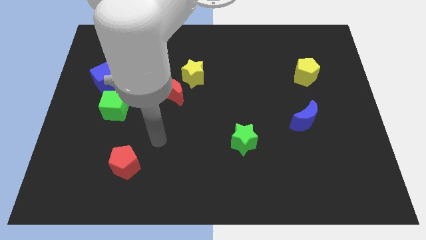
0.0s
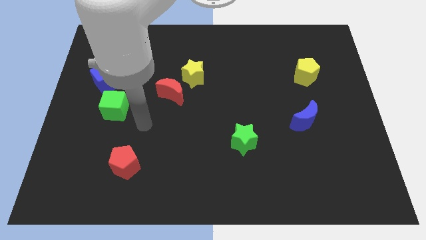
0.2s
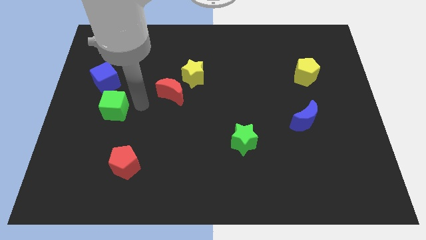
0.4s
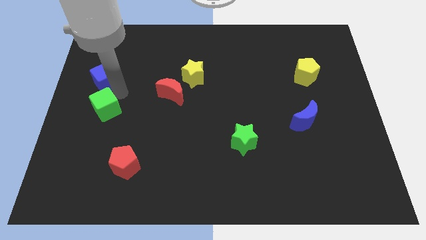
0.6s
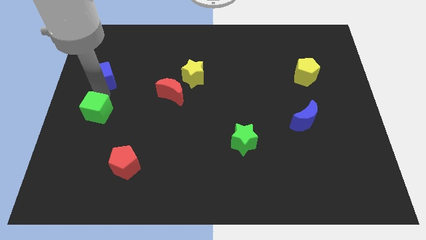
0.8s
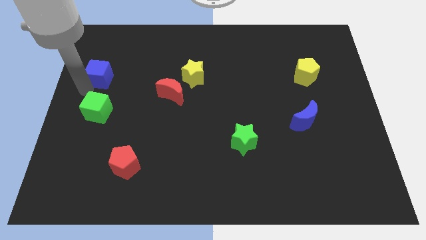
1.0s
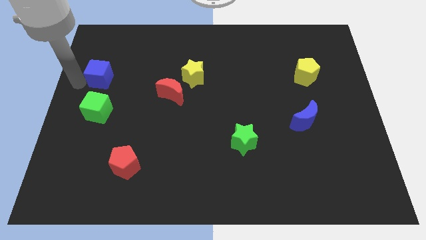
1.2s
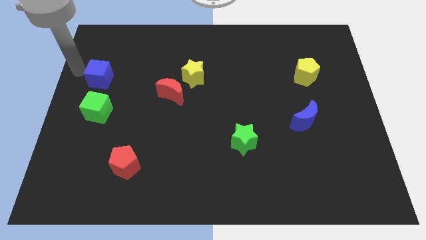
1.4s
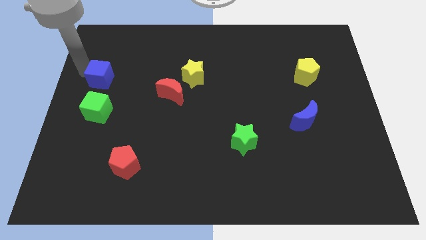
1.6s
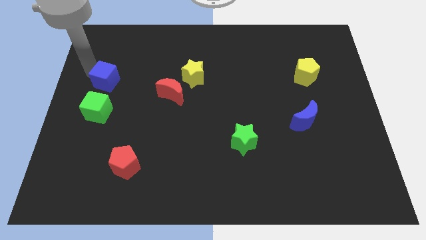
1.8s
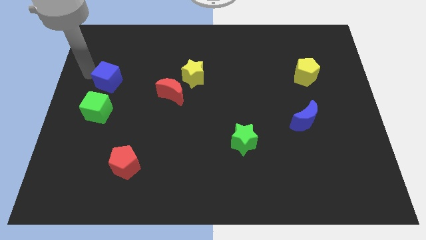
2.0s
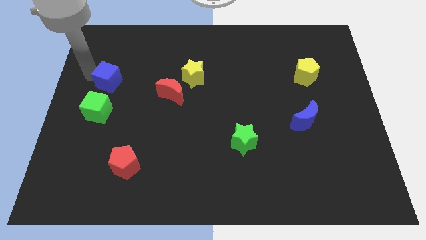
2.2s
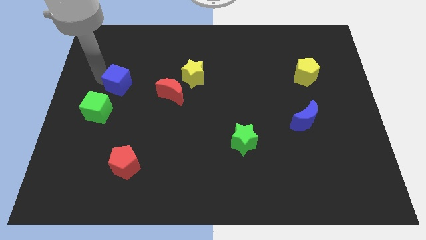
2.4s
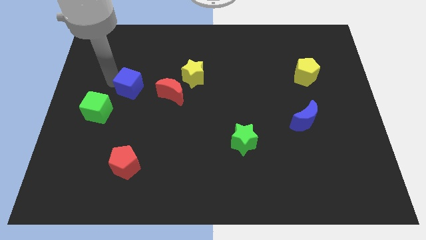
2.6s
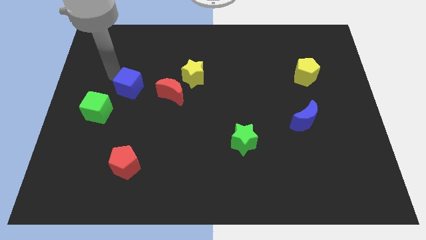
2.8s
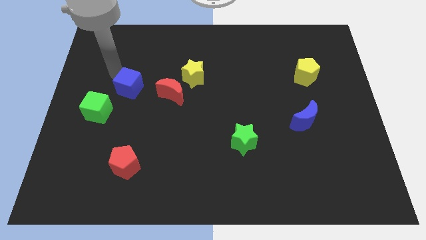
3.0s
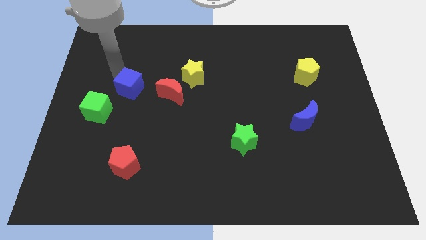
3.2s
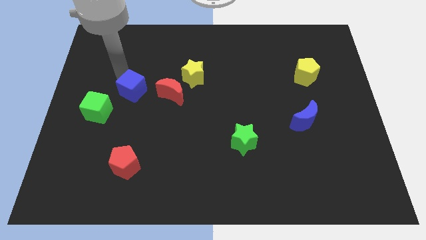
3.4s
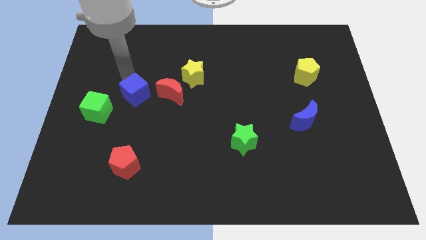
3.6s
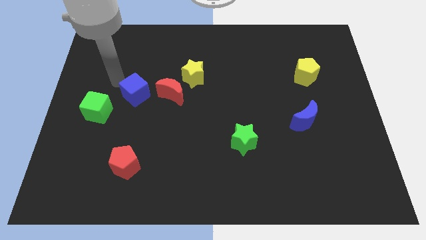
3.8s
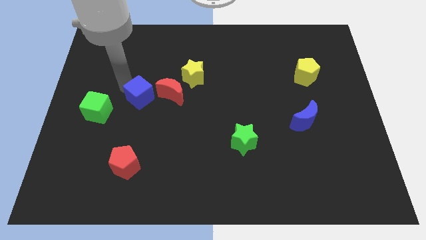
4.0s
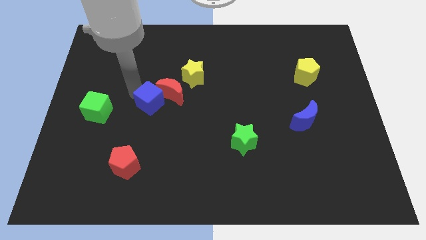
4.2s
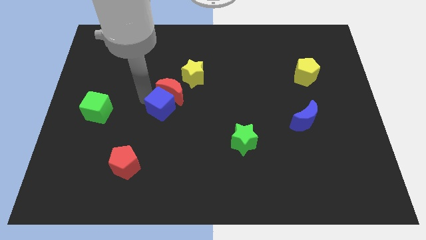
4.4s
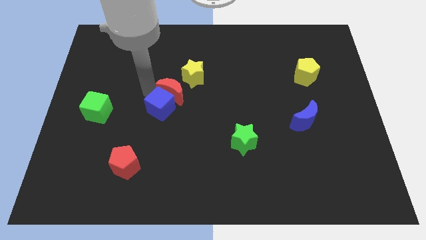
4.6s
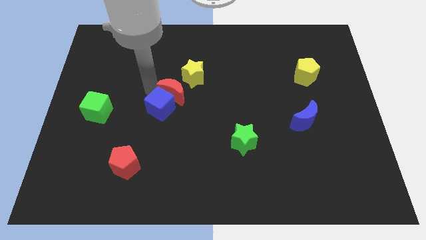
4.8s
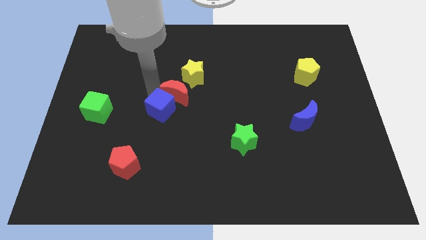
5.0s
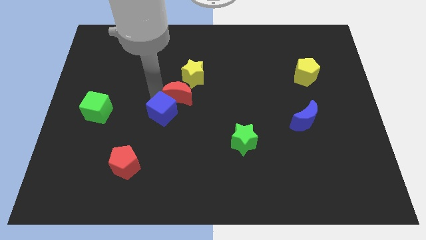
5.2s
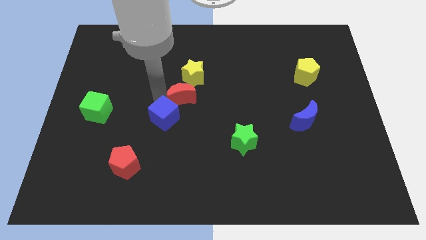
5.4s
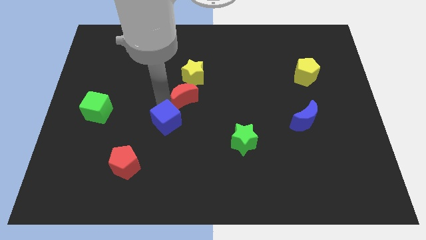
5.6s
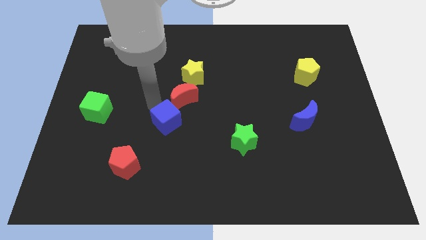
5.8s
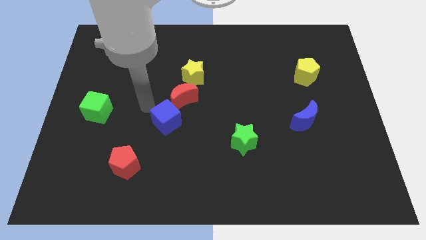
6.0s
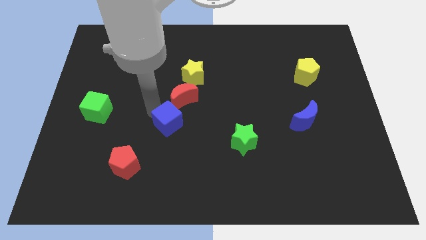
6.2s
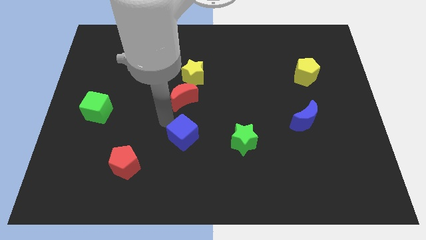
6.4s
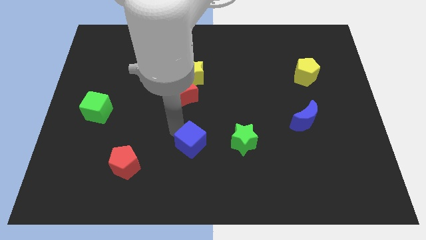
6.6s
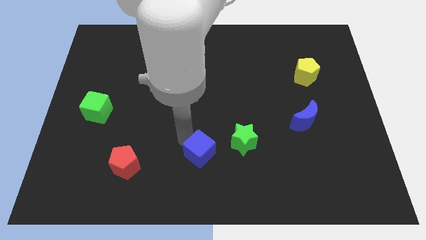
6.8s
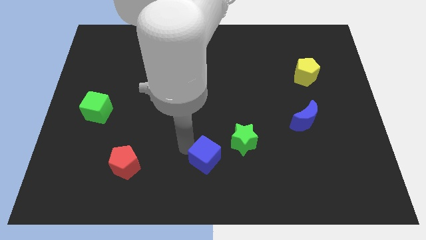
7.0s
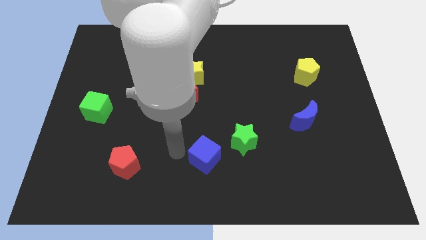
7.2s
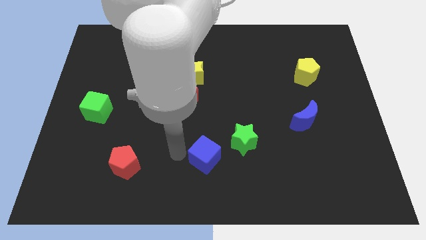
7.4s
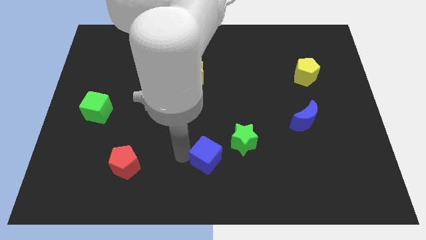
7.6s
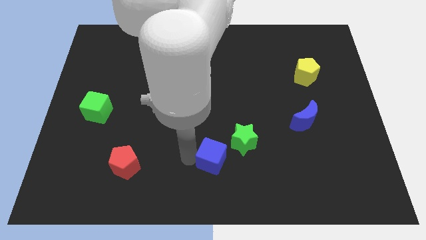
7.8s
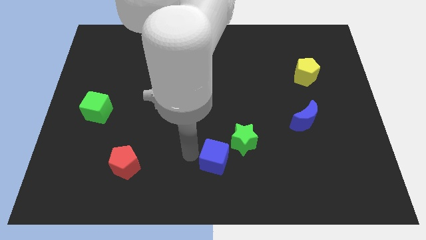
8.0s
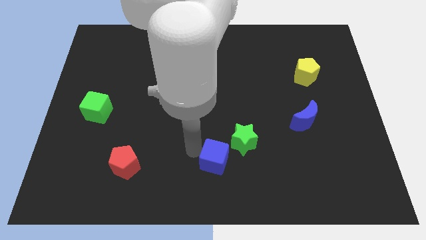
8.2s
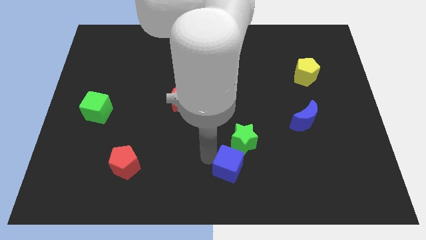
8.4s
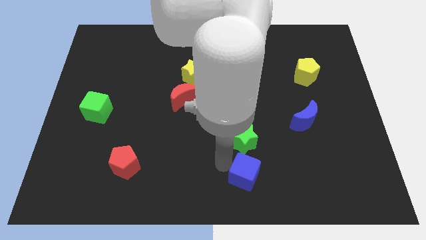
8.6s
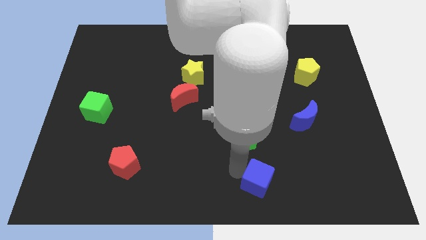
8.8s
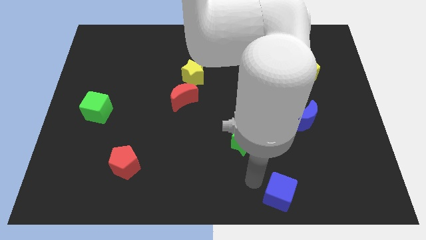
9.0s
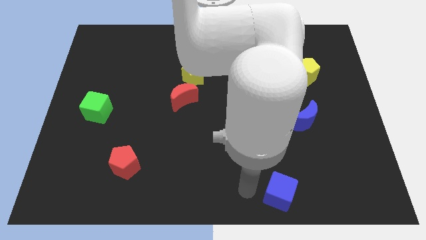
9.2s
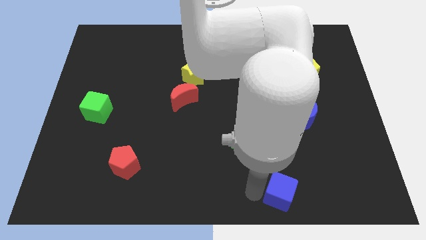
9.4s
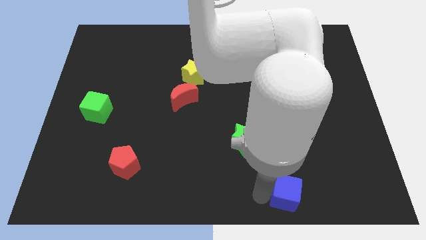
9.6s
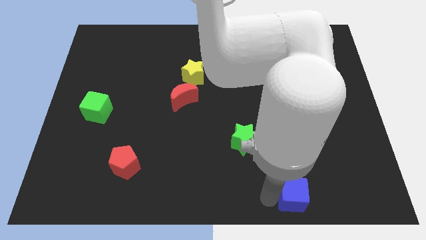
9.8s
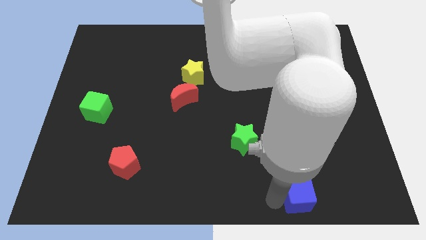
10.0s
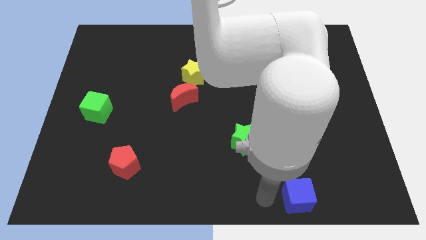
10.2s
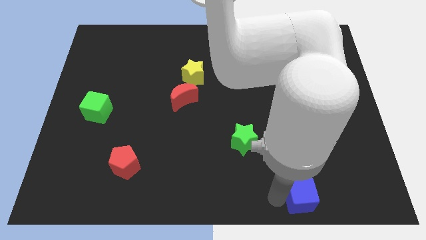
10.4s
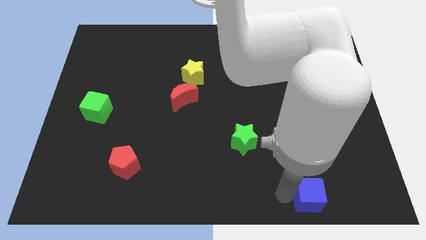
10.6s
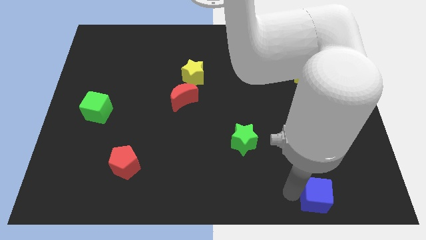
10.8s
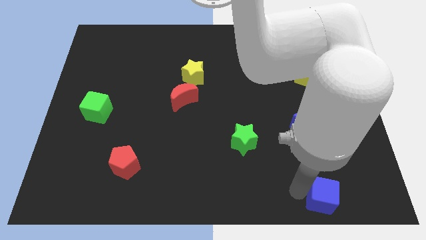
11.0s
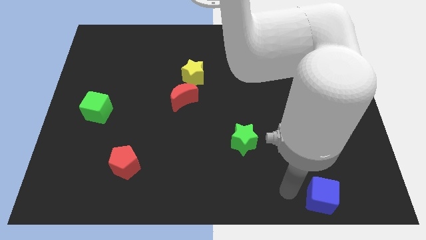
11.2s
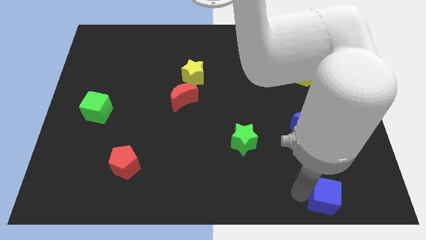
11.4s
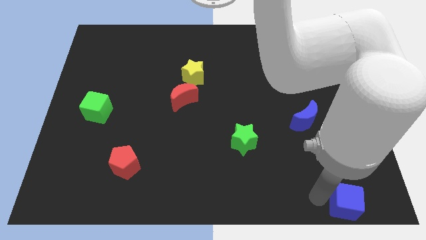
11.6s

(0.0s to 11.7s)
push the blue cube to the lower right corner

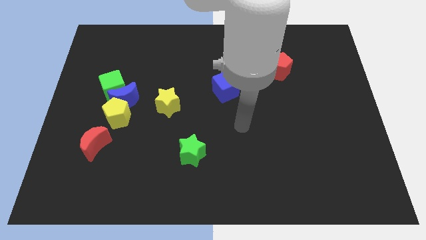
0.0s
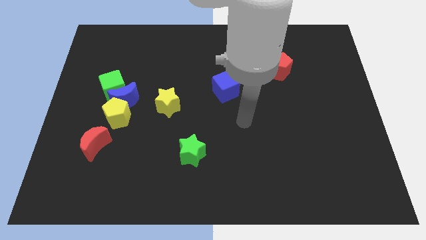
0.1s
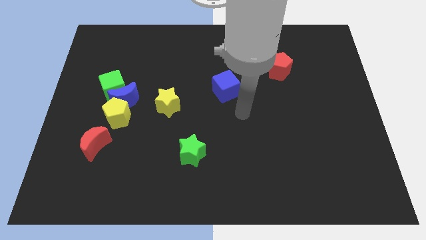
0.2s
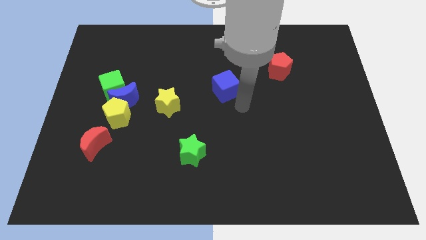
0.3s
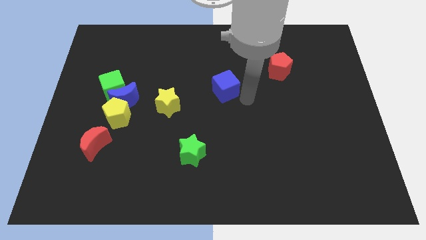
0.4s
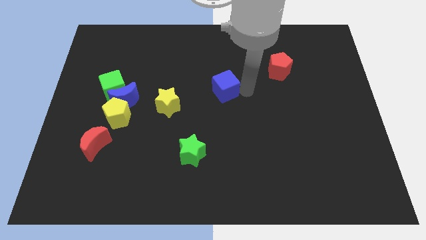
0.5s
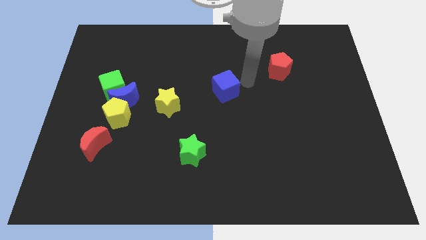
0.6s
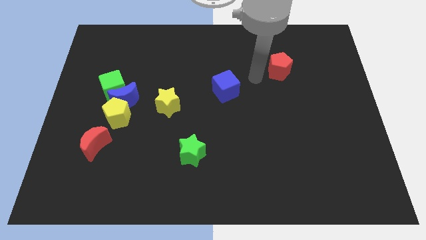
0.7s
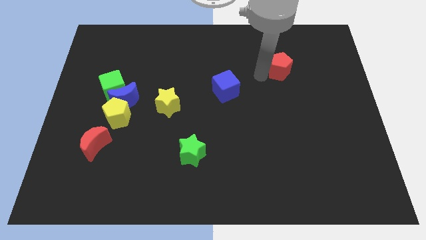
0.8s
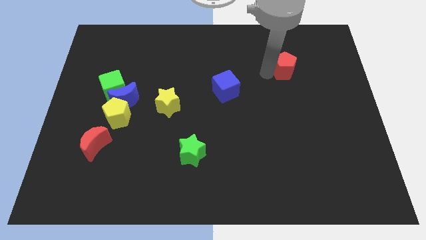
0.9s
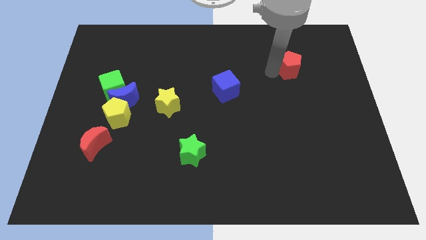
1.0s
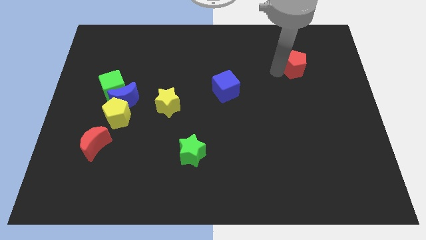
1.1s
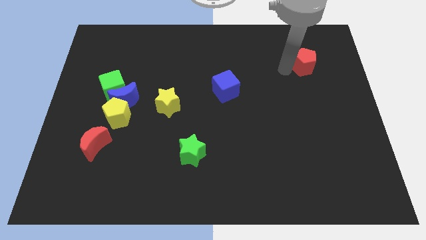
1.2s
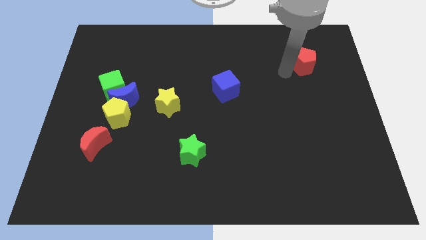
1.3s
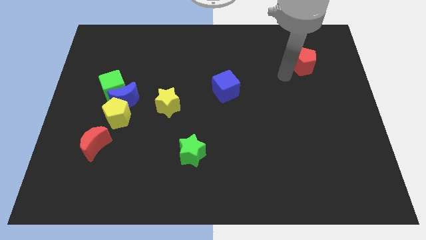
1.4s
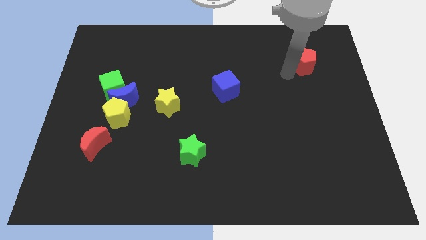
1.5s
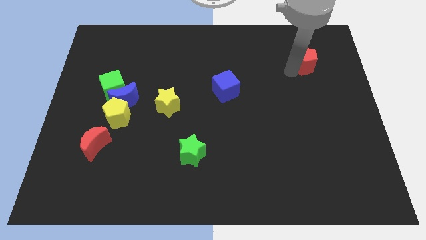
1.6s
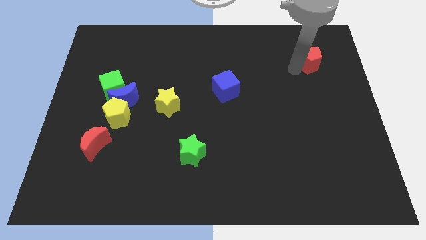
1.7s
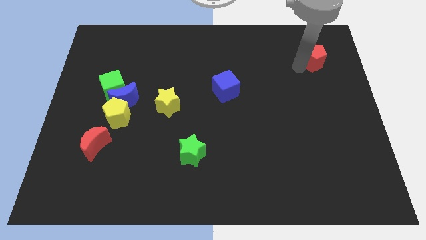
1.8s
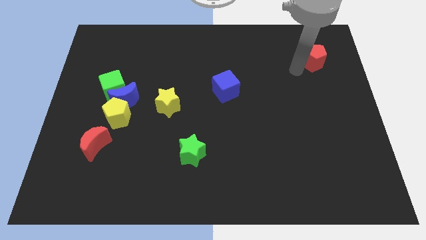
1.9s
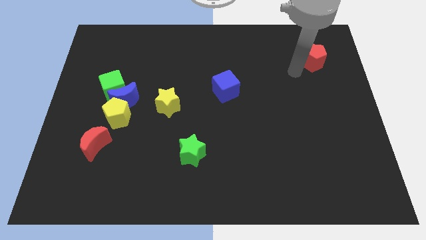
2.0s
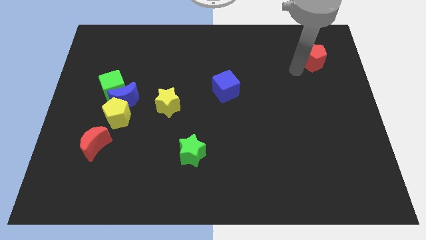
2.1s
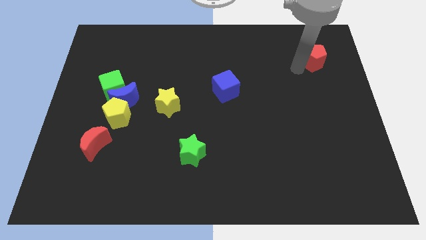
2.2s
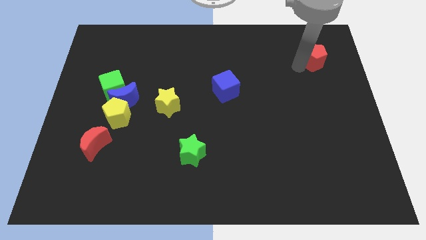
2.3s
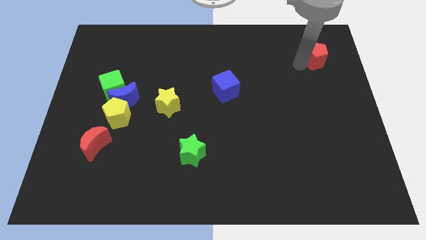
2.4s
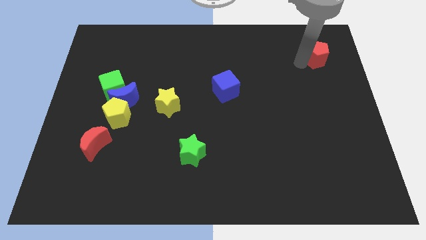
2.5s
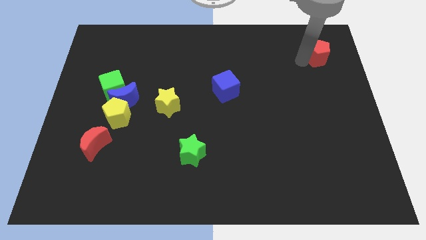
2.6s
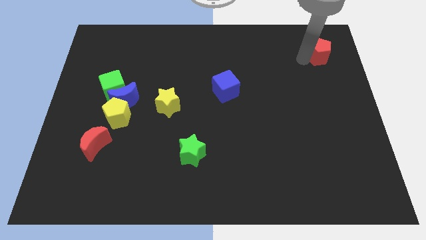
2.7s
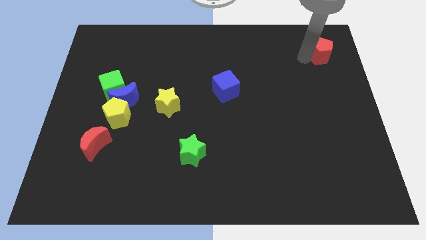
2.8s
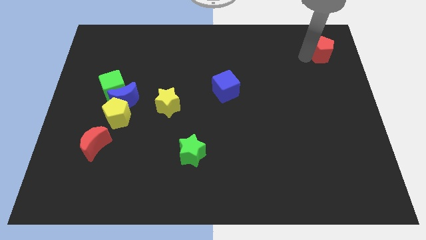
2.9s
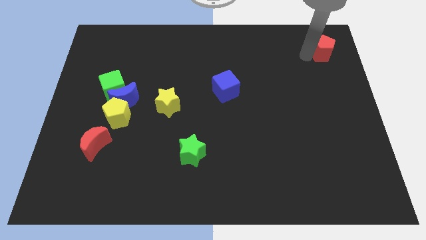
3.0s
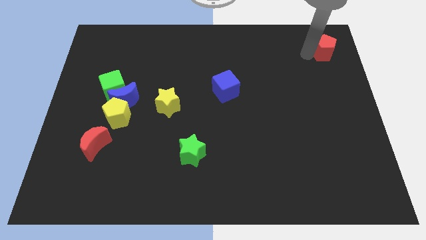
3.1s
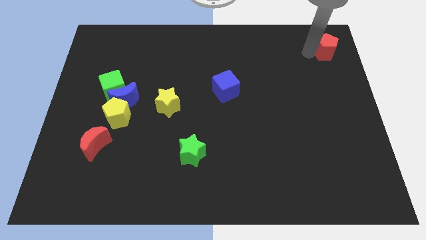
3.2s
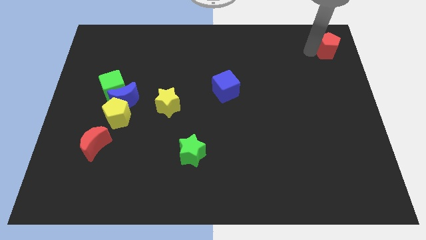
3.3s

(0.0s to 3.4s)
move the red pentagon to the top right corner
